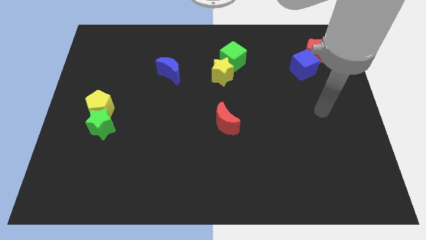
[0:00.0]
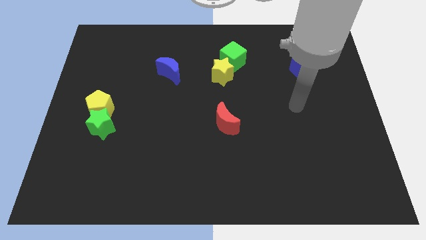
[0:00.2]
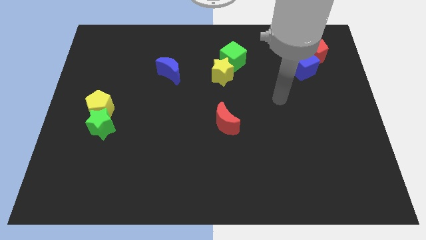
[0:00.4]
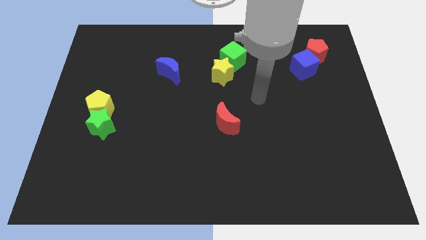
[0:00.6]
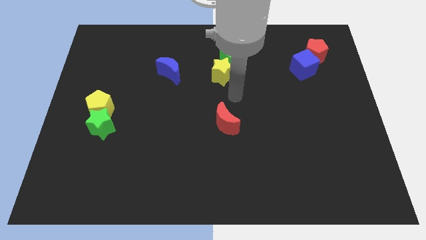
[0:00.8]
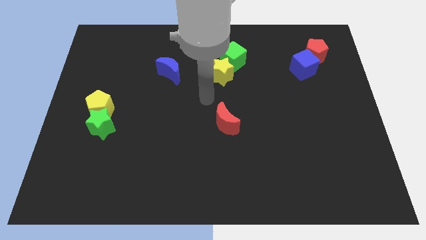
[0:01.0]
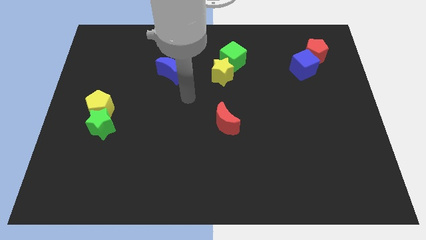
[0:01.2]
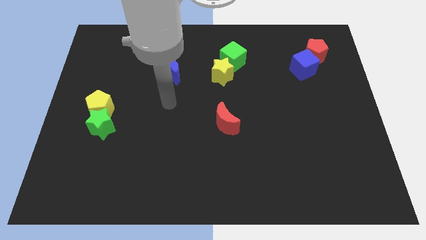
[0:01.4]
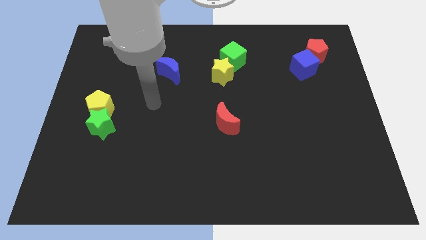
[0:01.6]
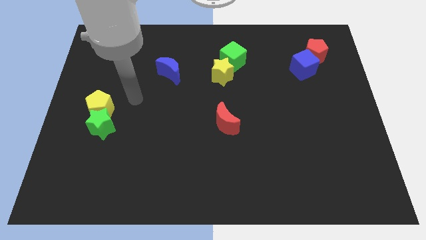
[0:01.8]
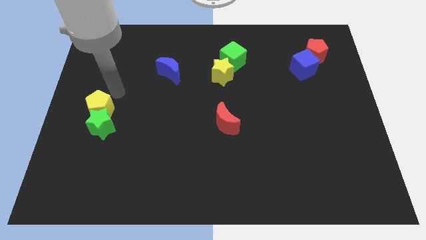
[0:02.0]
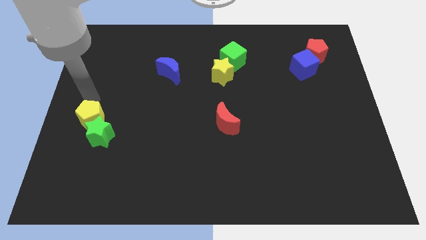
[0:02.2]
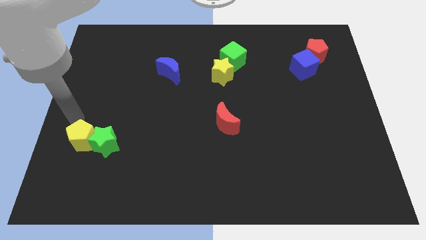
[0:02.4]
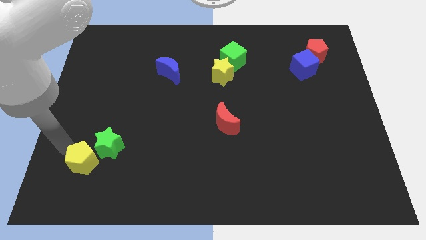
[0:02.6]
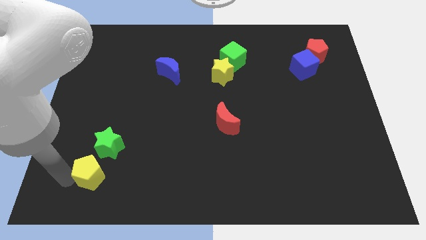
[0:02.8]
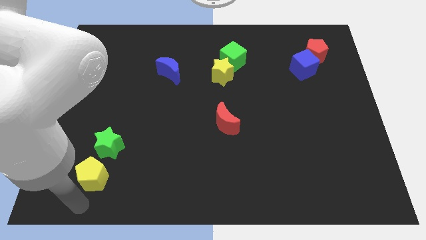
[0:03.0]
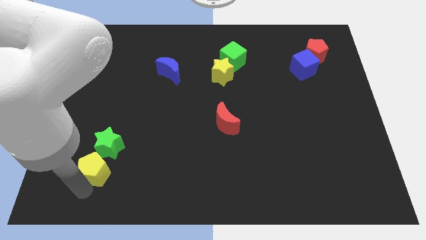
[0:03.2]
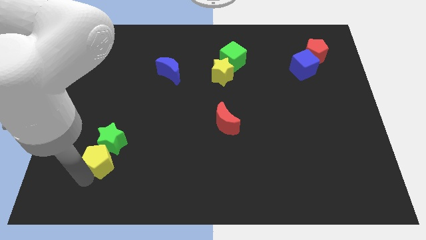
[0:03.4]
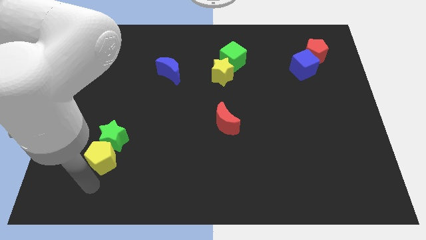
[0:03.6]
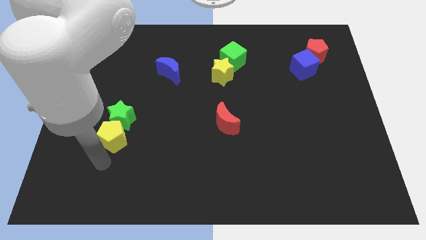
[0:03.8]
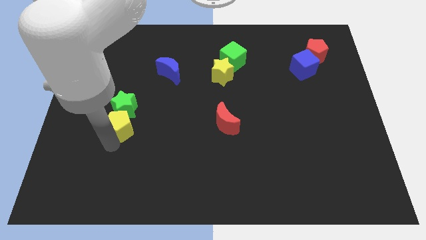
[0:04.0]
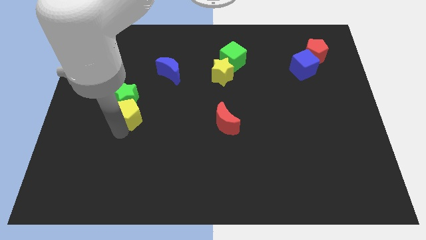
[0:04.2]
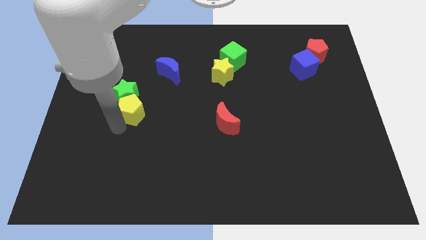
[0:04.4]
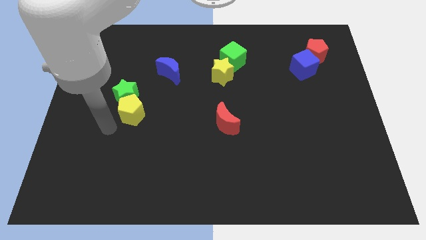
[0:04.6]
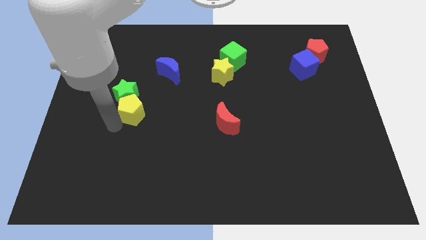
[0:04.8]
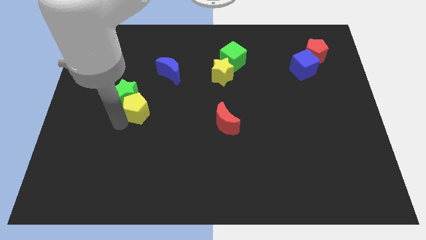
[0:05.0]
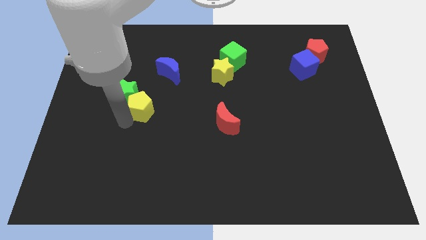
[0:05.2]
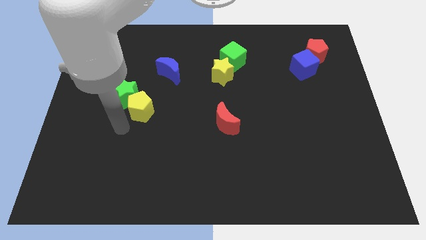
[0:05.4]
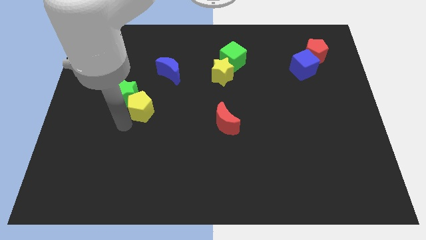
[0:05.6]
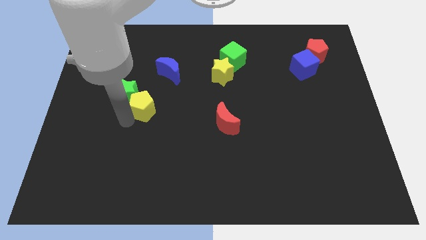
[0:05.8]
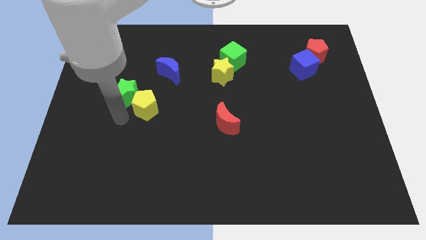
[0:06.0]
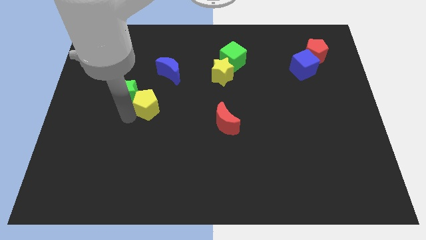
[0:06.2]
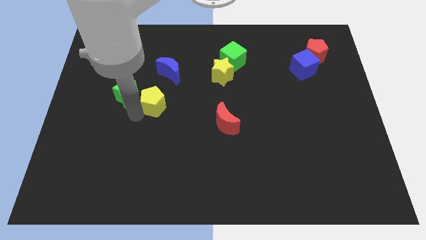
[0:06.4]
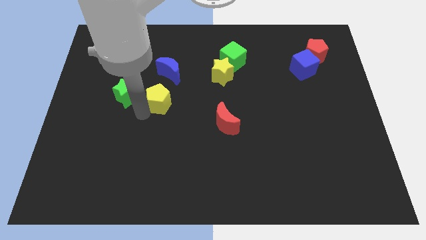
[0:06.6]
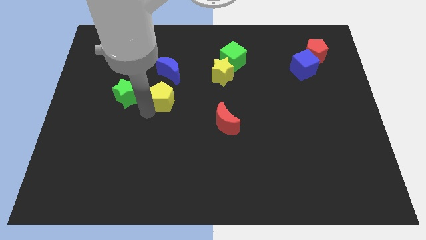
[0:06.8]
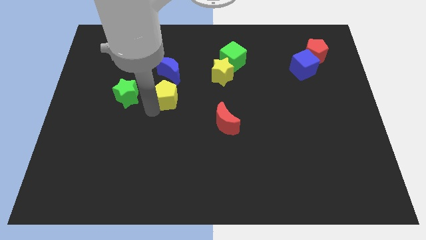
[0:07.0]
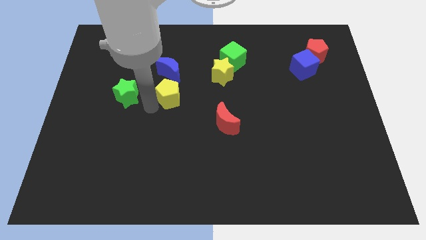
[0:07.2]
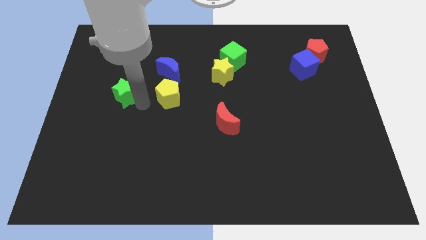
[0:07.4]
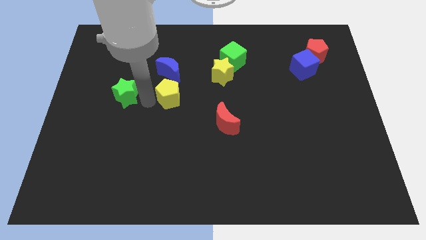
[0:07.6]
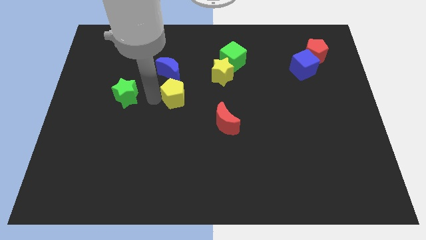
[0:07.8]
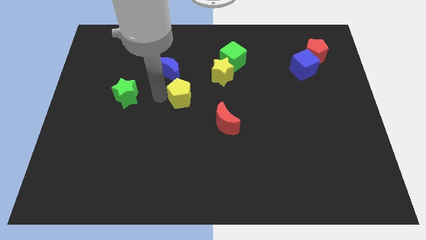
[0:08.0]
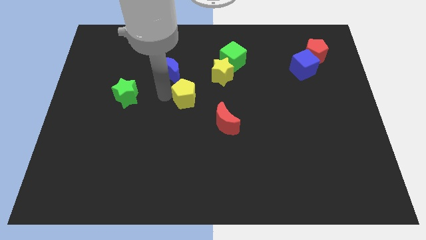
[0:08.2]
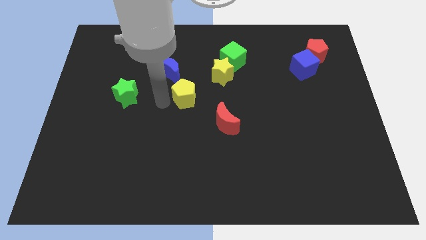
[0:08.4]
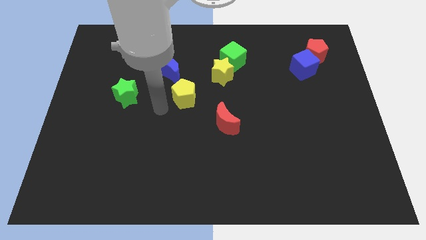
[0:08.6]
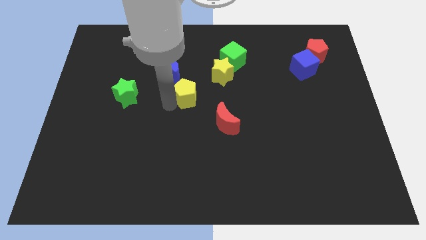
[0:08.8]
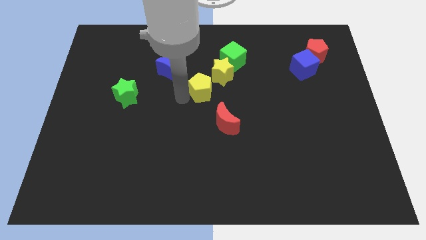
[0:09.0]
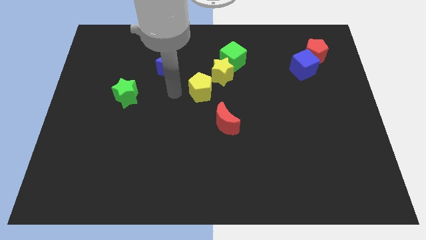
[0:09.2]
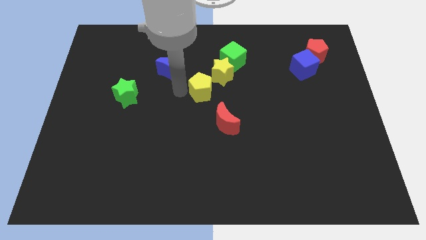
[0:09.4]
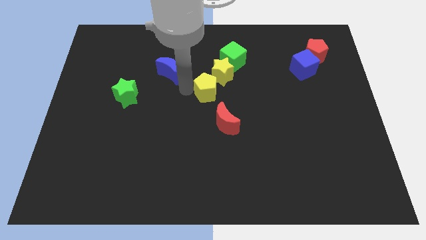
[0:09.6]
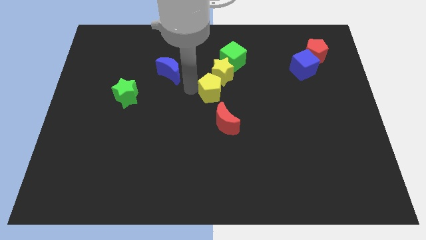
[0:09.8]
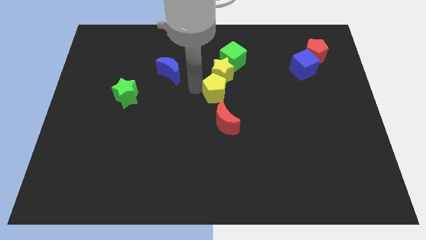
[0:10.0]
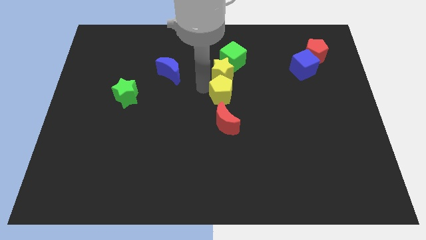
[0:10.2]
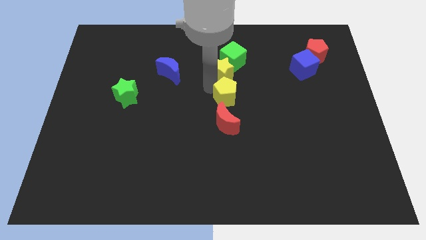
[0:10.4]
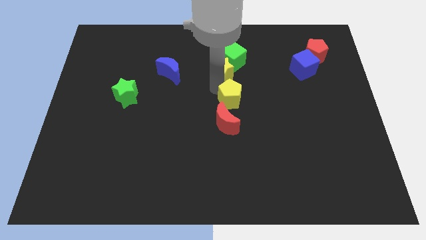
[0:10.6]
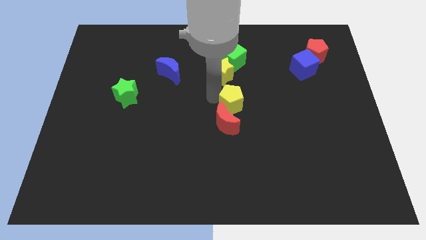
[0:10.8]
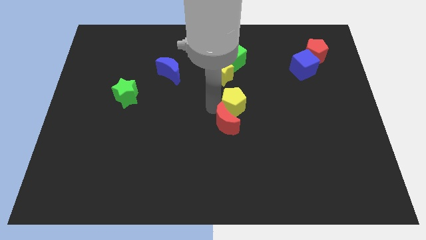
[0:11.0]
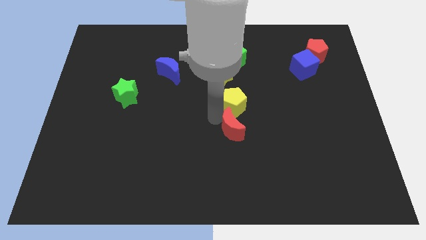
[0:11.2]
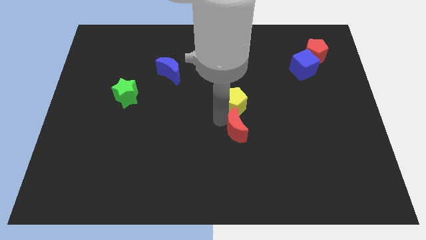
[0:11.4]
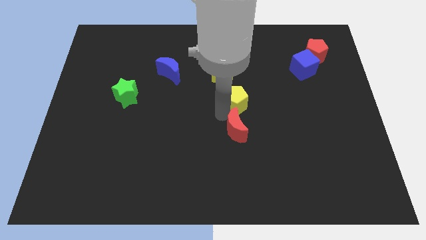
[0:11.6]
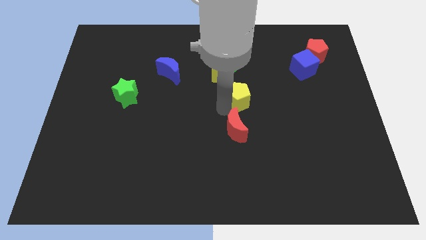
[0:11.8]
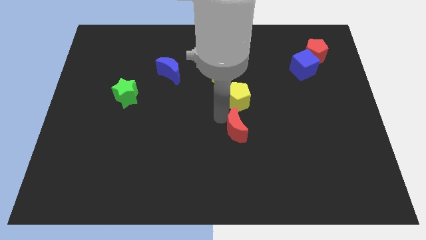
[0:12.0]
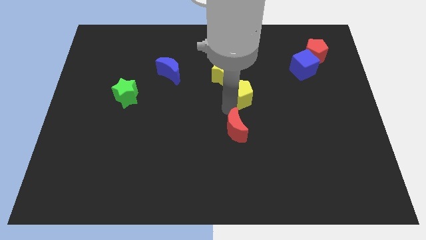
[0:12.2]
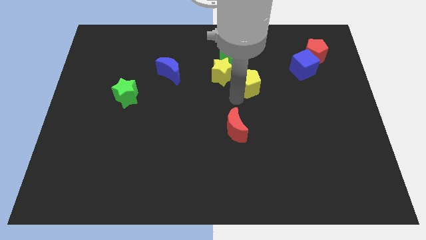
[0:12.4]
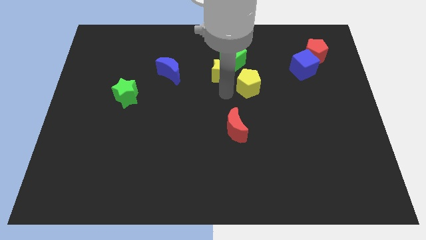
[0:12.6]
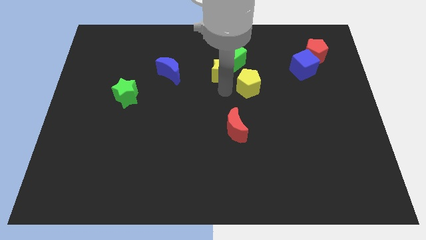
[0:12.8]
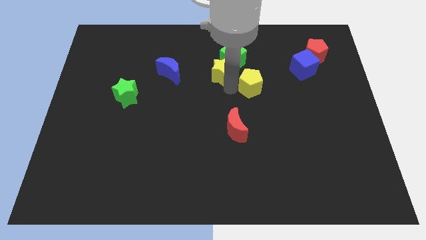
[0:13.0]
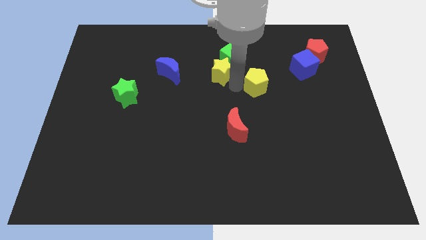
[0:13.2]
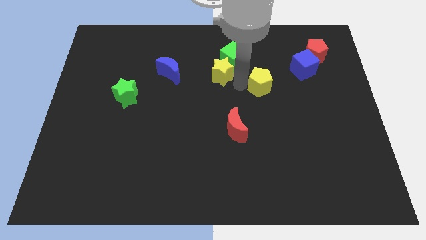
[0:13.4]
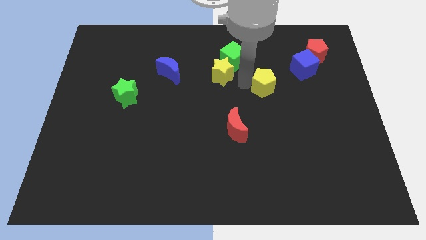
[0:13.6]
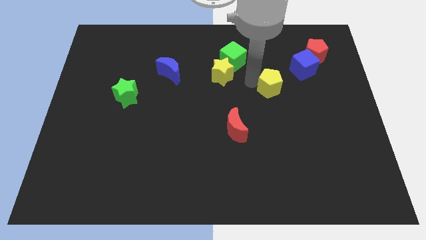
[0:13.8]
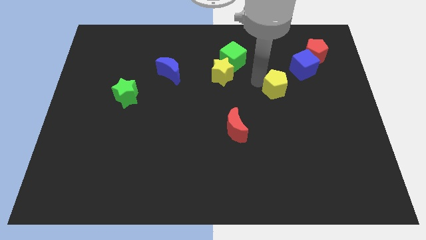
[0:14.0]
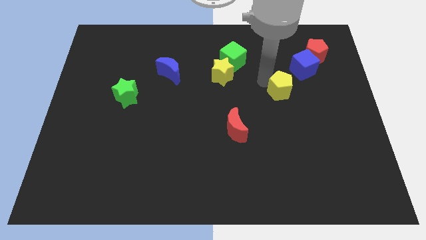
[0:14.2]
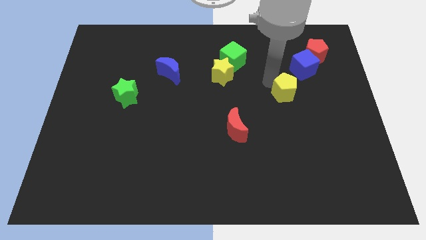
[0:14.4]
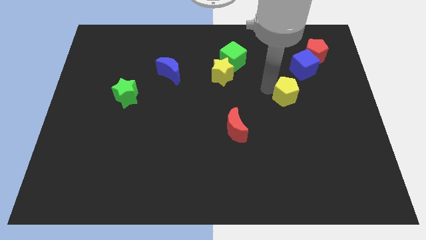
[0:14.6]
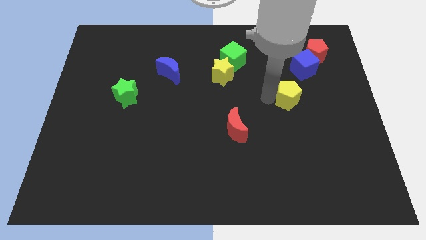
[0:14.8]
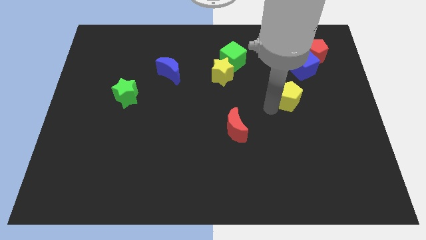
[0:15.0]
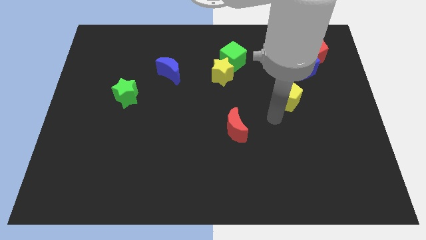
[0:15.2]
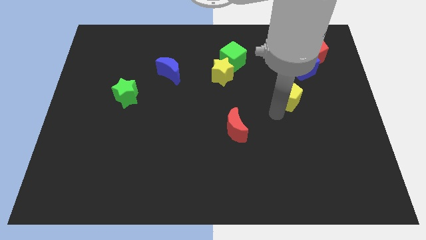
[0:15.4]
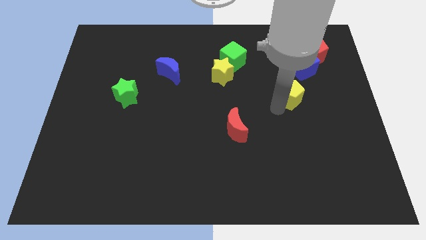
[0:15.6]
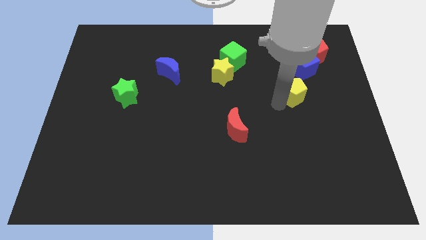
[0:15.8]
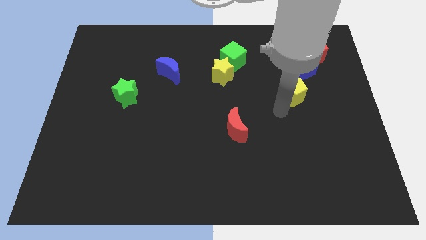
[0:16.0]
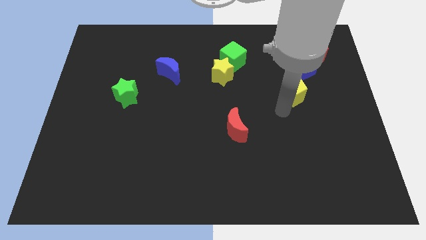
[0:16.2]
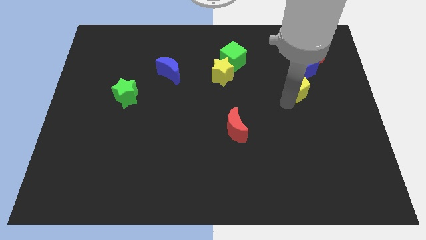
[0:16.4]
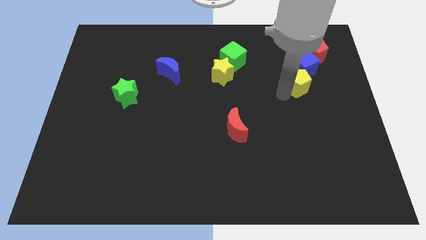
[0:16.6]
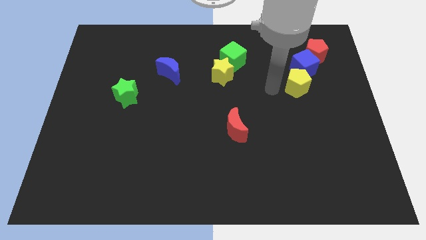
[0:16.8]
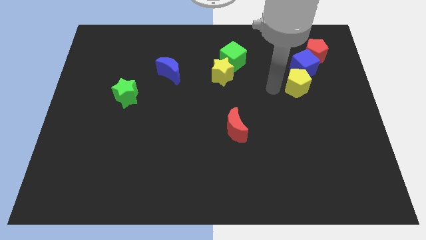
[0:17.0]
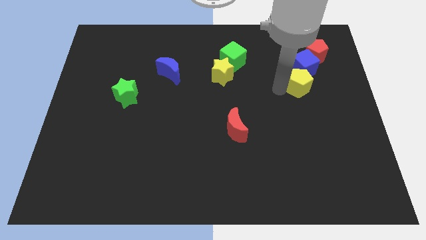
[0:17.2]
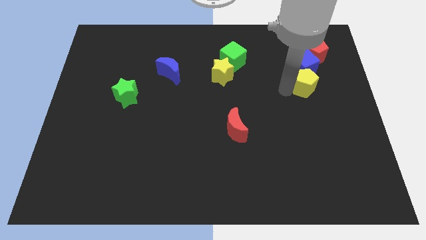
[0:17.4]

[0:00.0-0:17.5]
put the yellow pentagon to the bottom side of the red pentagon
